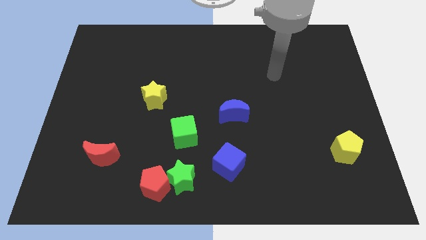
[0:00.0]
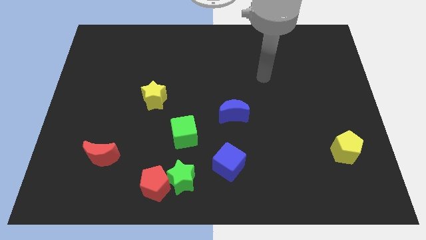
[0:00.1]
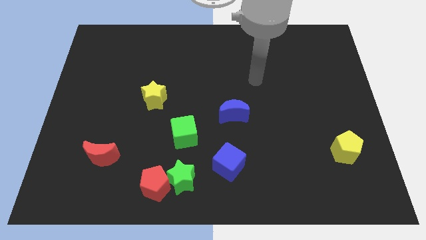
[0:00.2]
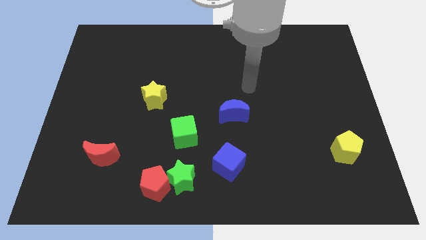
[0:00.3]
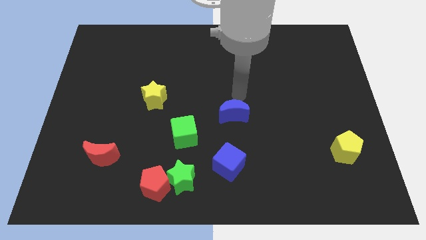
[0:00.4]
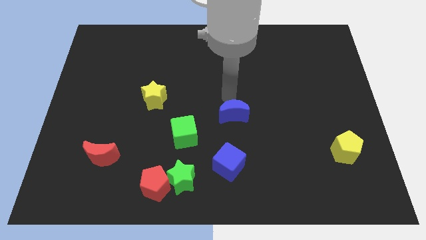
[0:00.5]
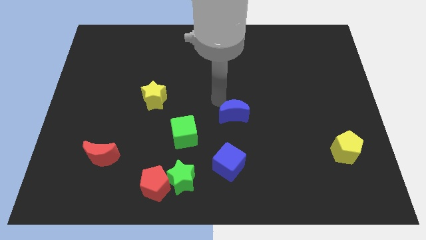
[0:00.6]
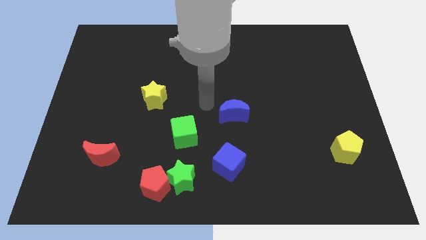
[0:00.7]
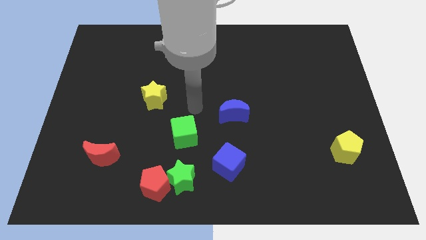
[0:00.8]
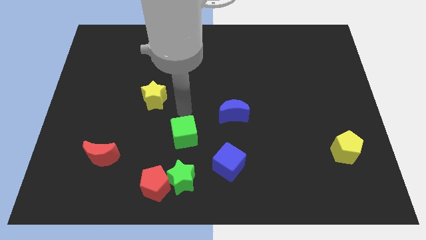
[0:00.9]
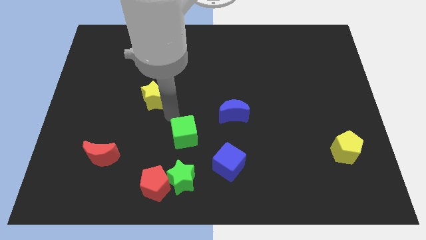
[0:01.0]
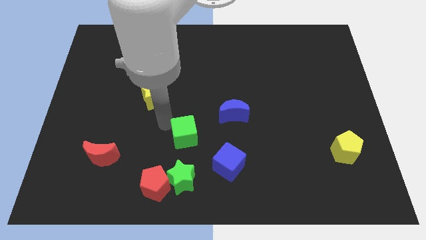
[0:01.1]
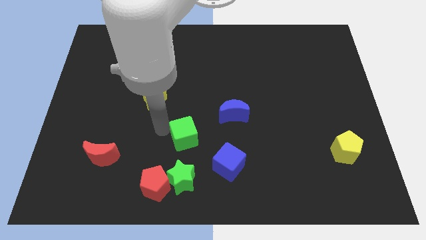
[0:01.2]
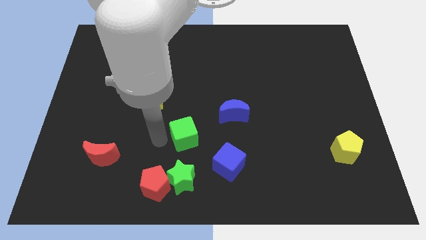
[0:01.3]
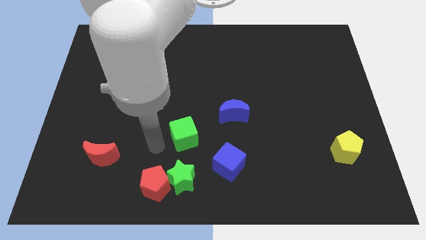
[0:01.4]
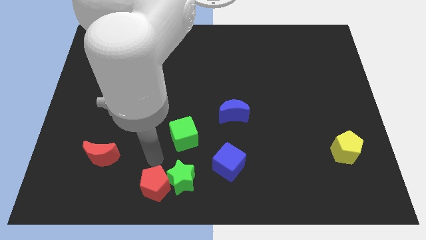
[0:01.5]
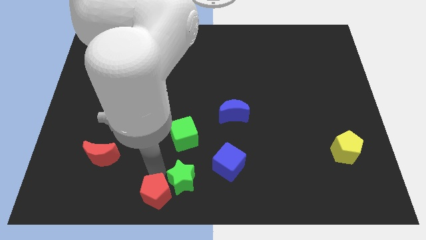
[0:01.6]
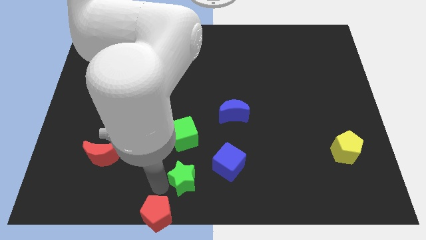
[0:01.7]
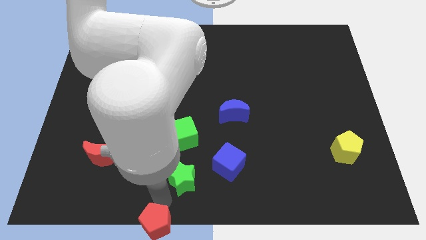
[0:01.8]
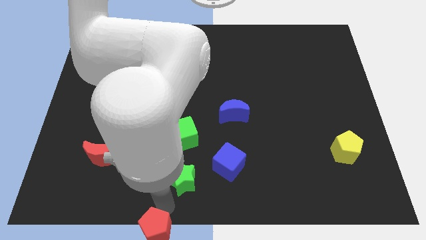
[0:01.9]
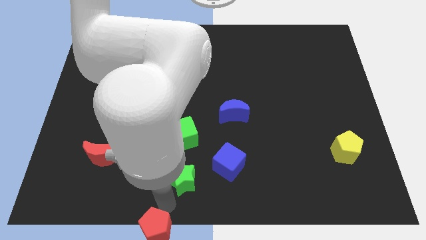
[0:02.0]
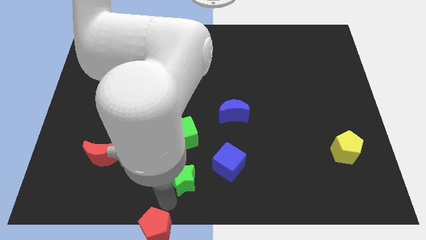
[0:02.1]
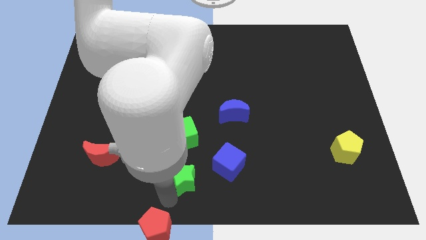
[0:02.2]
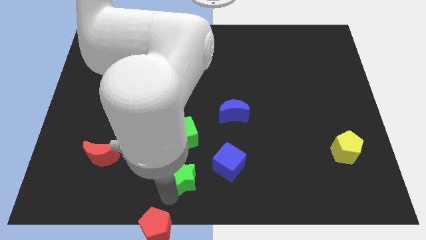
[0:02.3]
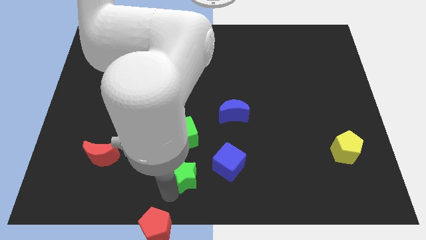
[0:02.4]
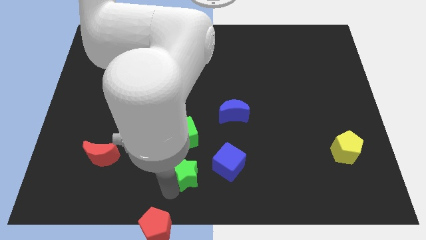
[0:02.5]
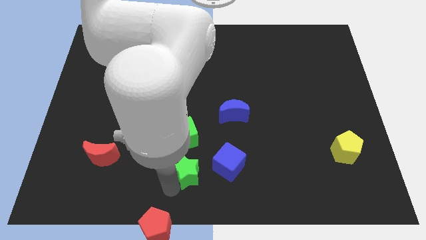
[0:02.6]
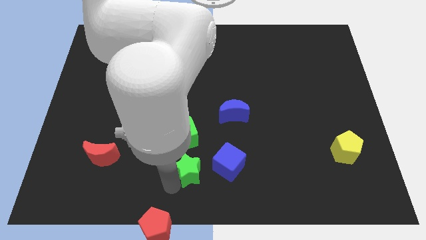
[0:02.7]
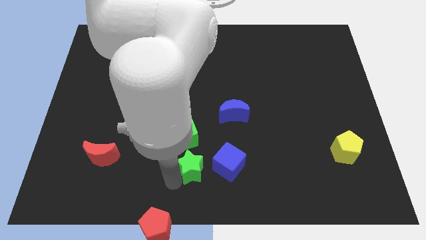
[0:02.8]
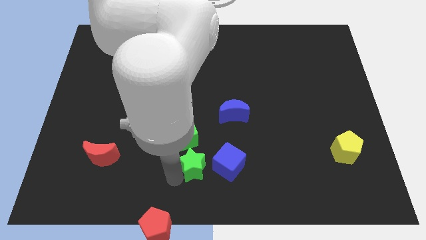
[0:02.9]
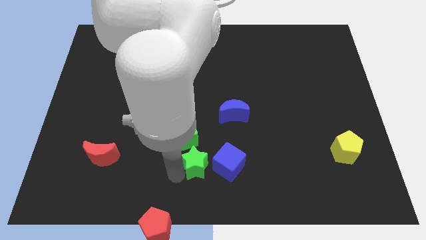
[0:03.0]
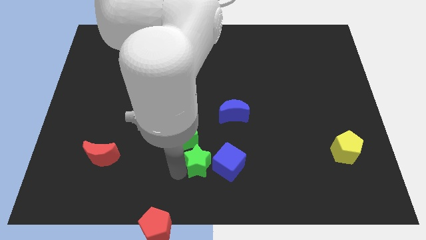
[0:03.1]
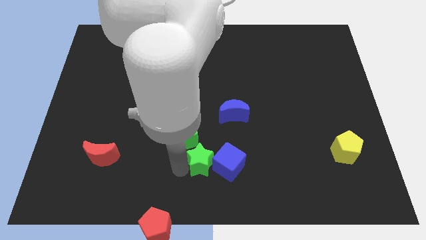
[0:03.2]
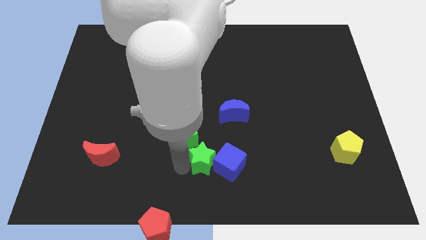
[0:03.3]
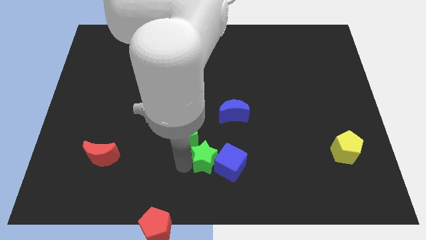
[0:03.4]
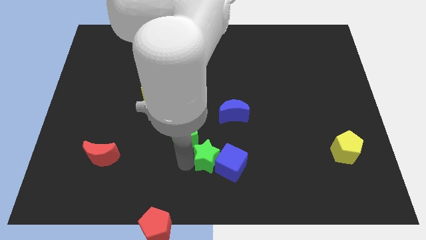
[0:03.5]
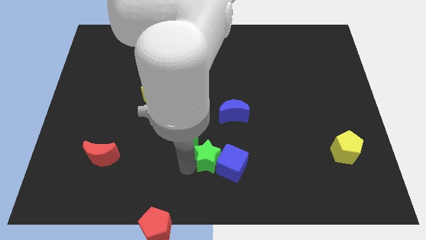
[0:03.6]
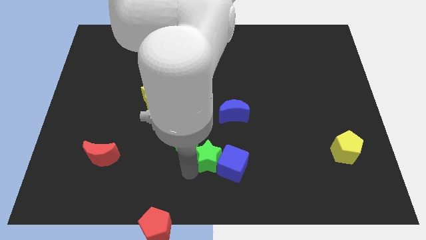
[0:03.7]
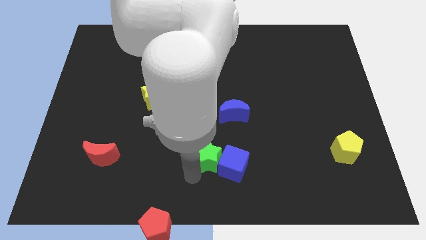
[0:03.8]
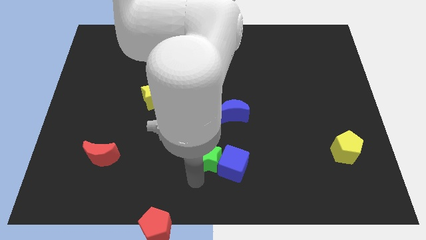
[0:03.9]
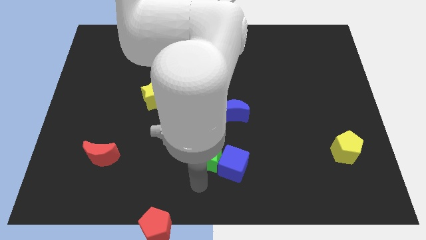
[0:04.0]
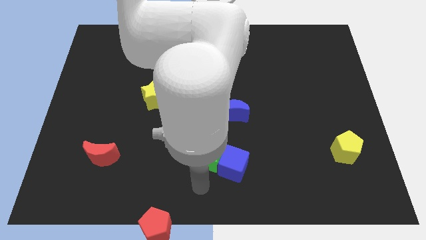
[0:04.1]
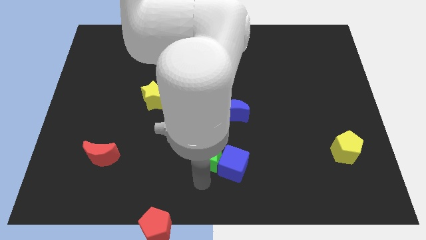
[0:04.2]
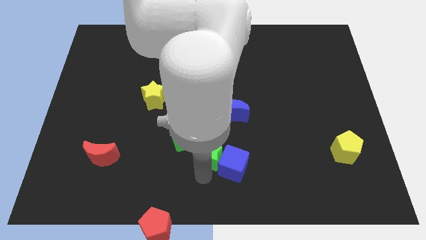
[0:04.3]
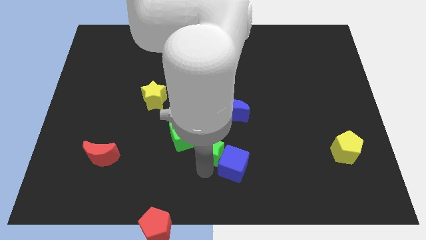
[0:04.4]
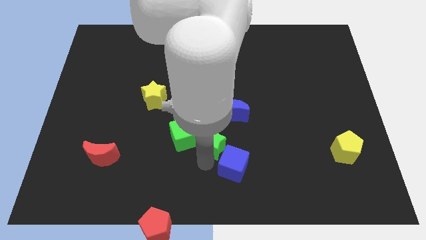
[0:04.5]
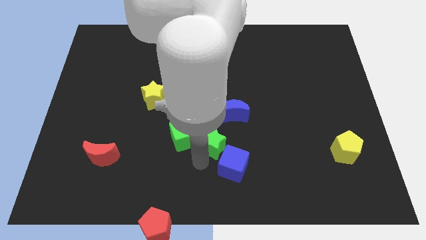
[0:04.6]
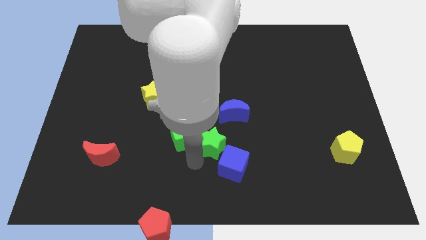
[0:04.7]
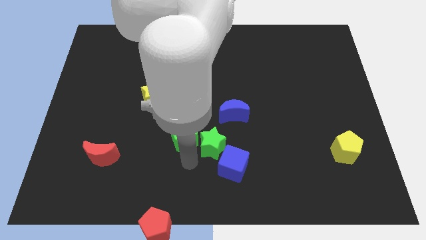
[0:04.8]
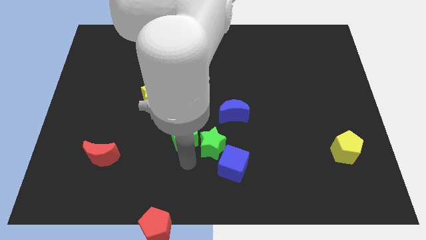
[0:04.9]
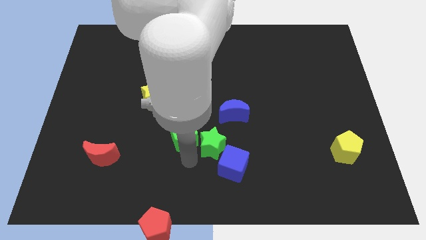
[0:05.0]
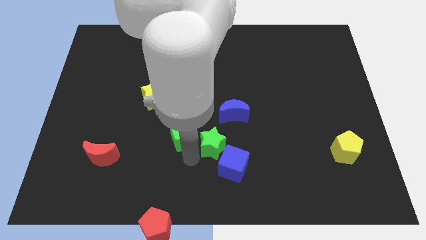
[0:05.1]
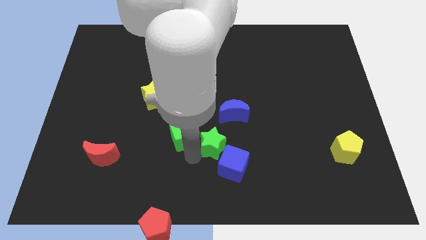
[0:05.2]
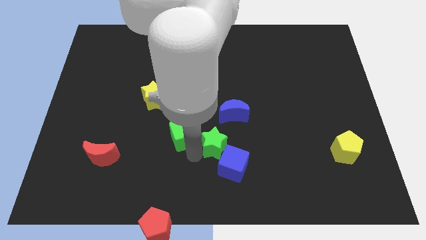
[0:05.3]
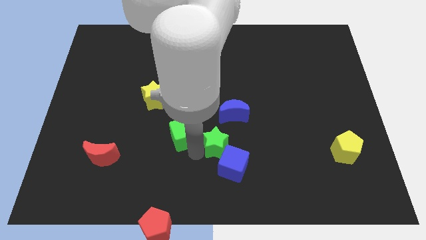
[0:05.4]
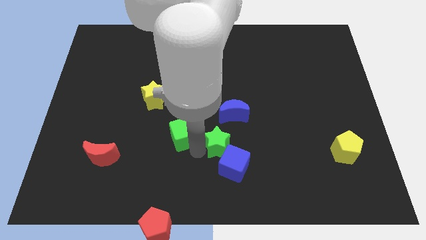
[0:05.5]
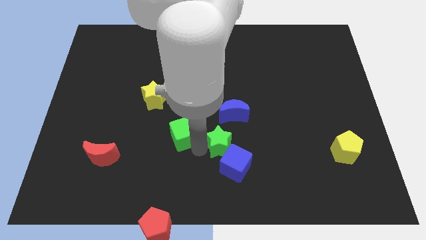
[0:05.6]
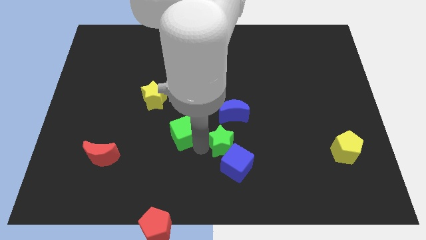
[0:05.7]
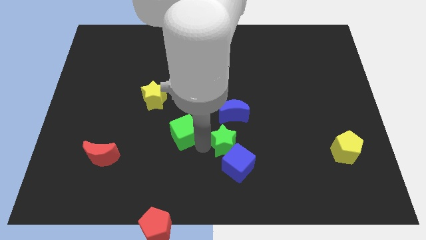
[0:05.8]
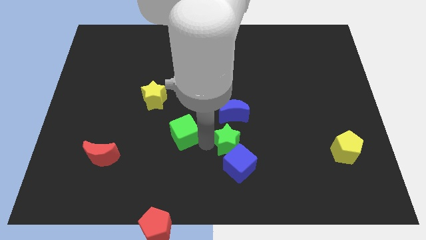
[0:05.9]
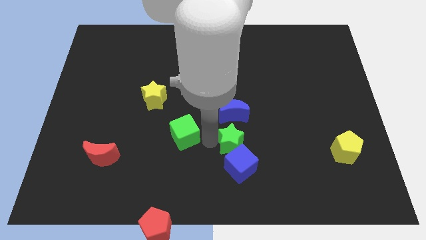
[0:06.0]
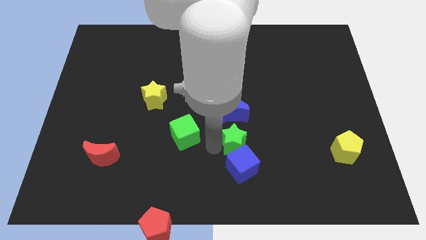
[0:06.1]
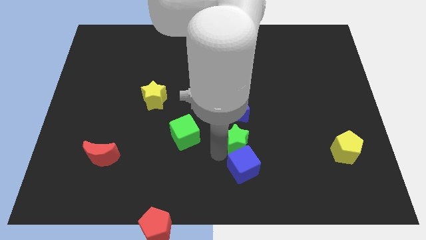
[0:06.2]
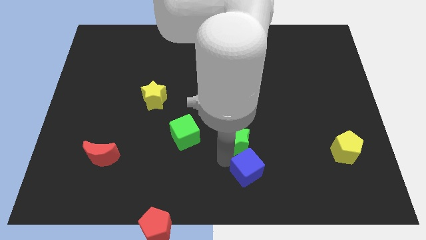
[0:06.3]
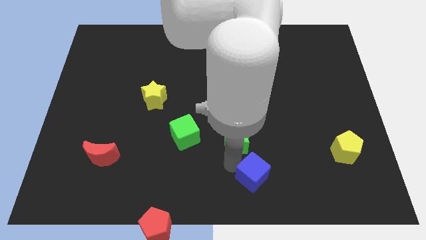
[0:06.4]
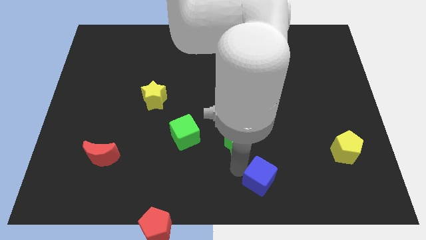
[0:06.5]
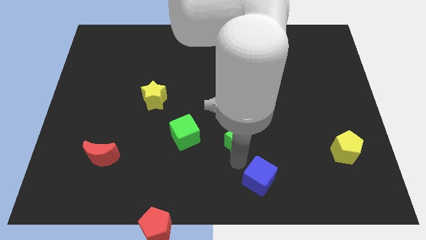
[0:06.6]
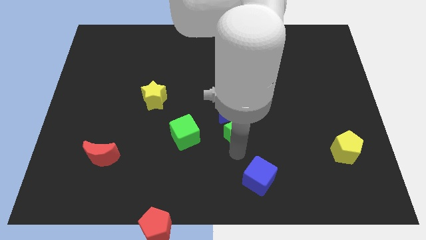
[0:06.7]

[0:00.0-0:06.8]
slide the green star to the blue moon
